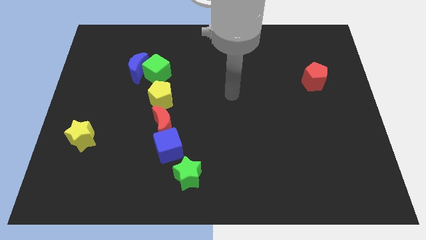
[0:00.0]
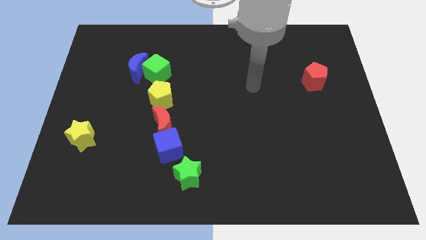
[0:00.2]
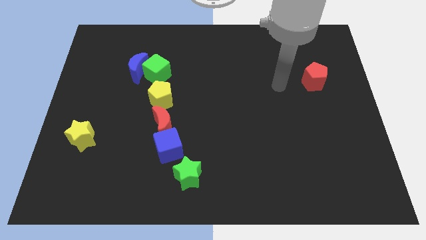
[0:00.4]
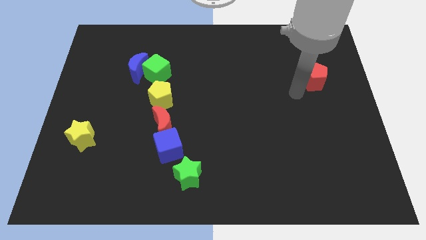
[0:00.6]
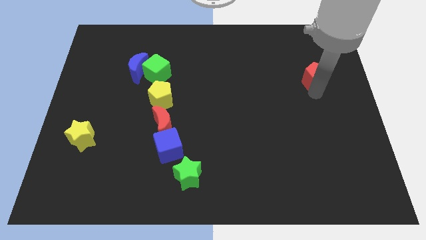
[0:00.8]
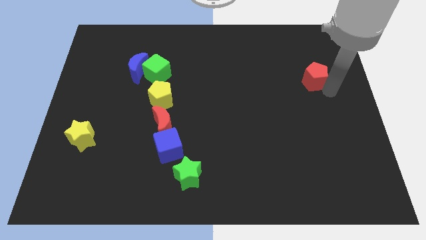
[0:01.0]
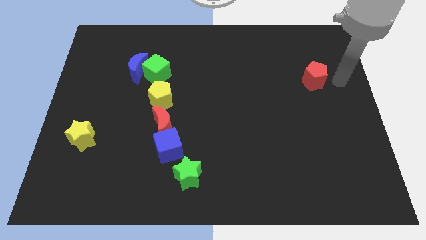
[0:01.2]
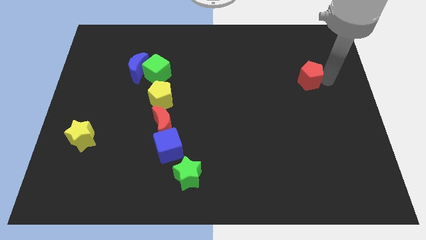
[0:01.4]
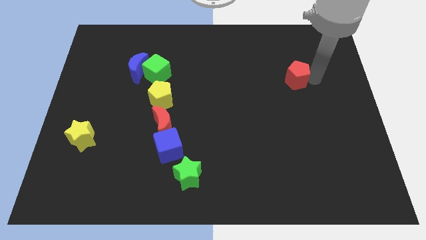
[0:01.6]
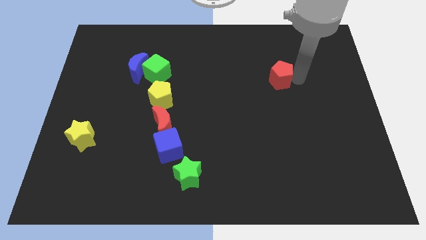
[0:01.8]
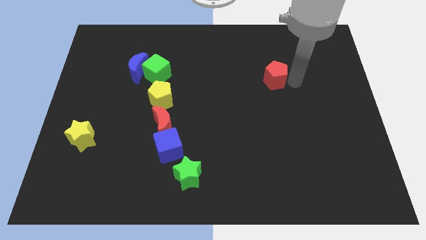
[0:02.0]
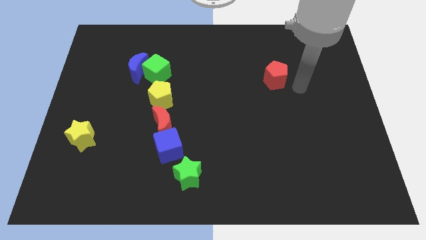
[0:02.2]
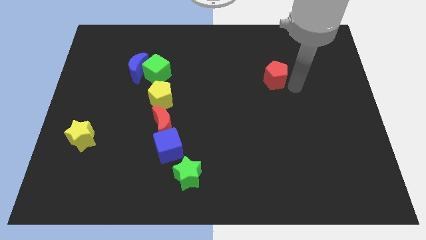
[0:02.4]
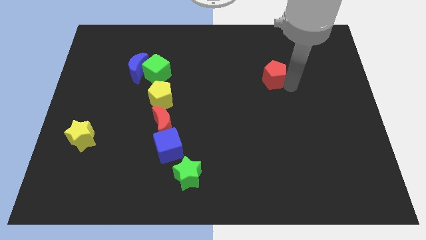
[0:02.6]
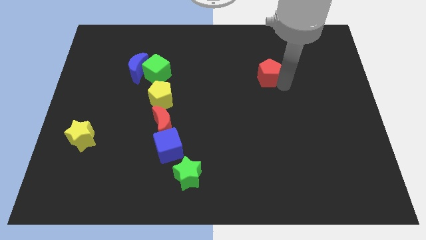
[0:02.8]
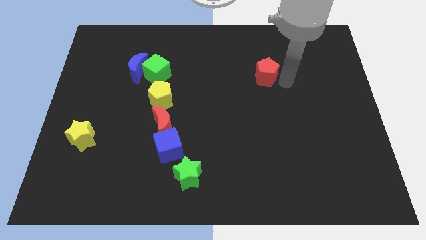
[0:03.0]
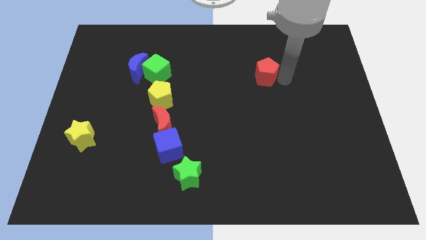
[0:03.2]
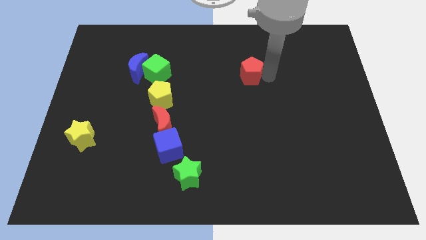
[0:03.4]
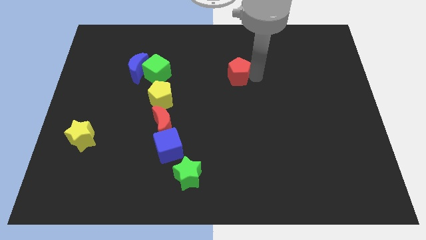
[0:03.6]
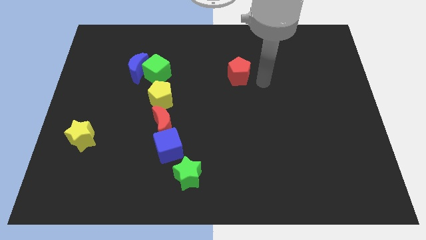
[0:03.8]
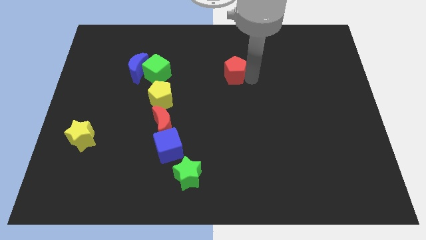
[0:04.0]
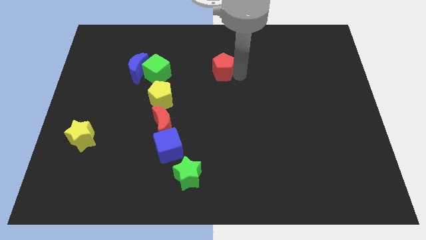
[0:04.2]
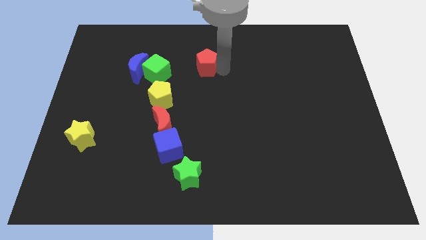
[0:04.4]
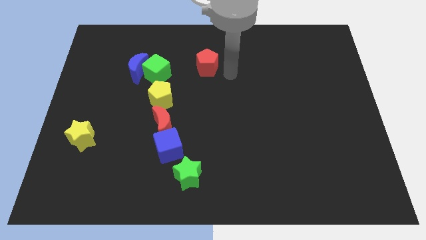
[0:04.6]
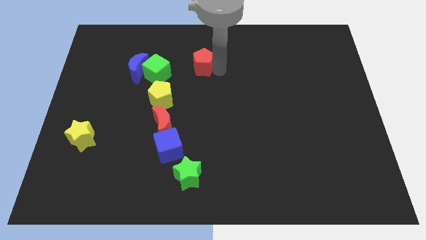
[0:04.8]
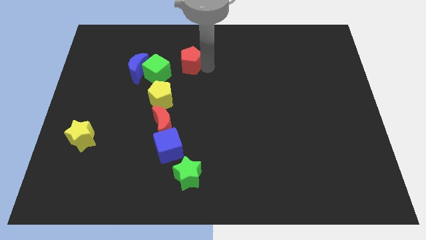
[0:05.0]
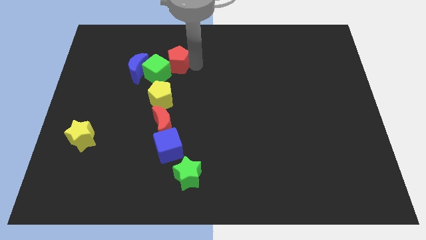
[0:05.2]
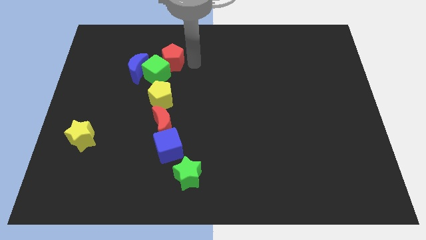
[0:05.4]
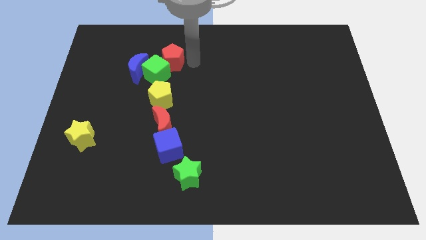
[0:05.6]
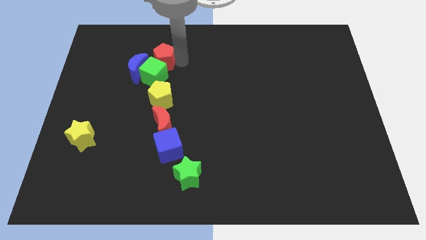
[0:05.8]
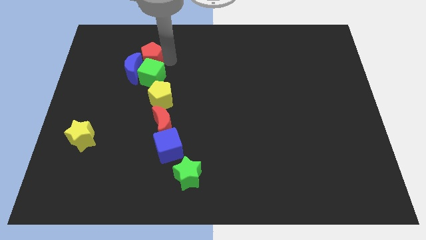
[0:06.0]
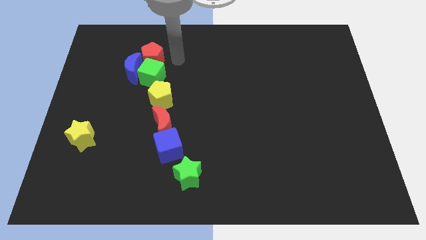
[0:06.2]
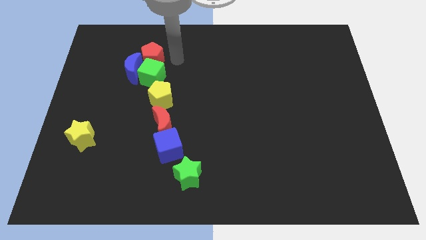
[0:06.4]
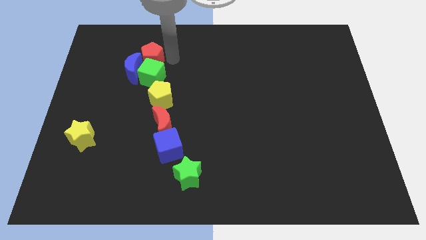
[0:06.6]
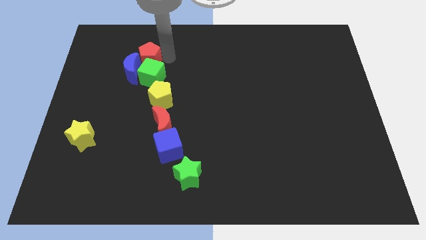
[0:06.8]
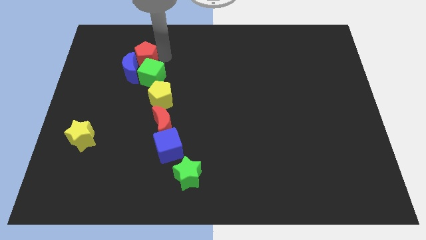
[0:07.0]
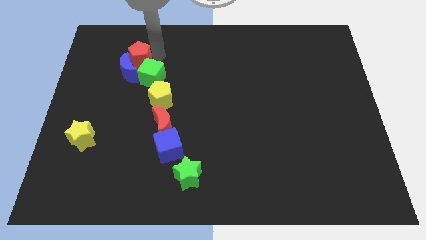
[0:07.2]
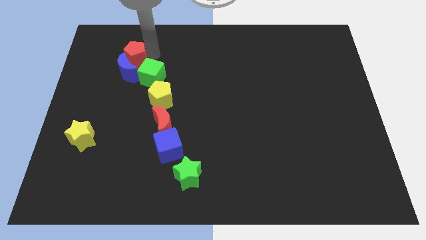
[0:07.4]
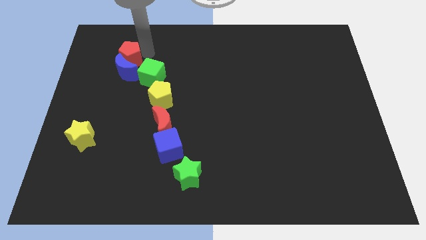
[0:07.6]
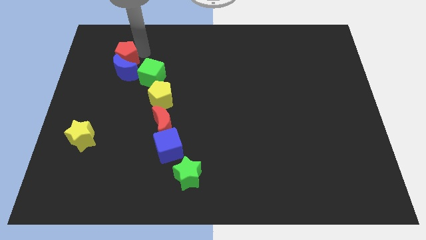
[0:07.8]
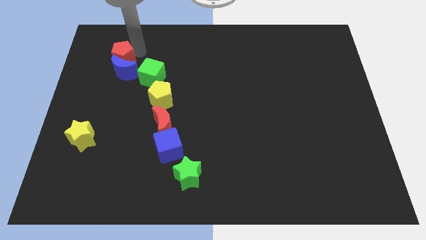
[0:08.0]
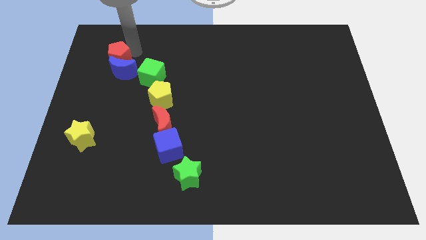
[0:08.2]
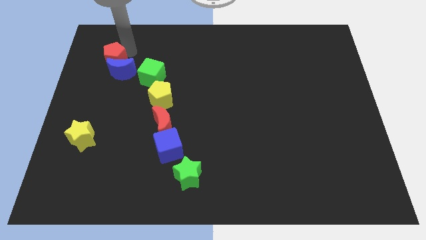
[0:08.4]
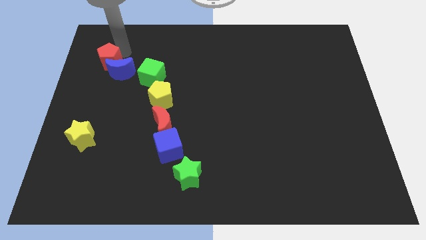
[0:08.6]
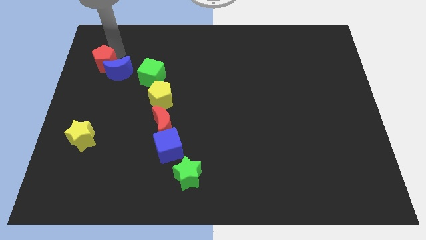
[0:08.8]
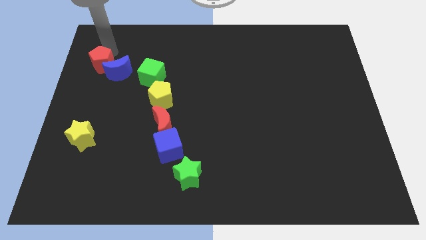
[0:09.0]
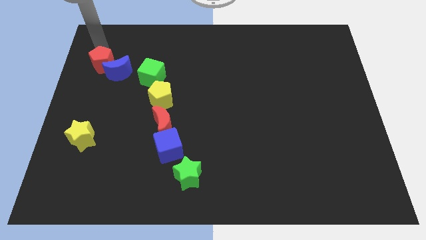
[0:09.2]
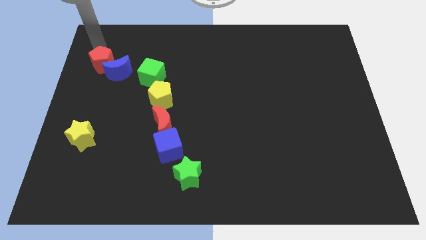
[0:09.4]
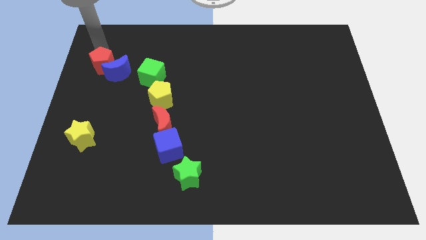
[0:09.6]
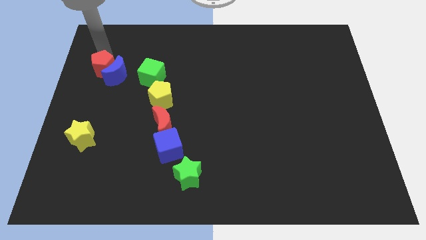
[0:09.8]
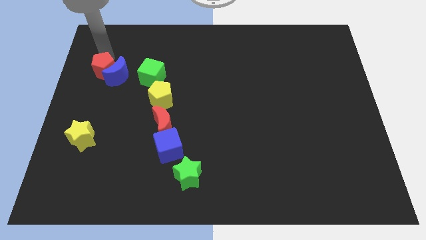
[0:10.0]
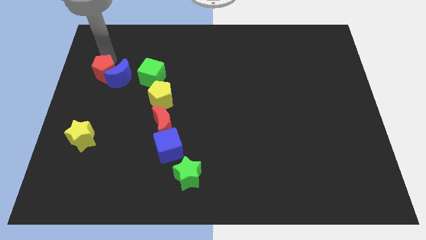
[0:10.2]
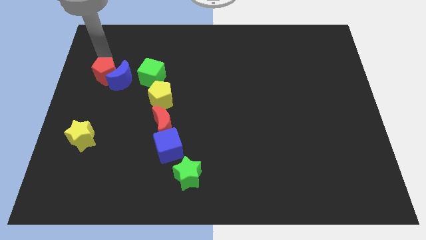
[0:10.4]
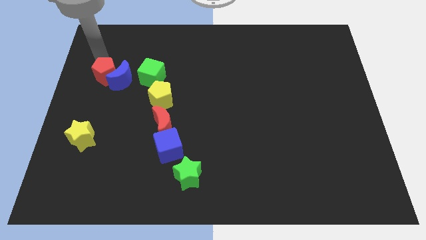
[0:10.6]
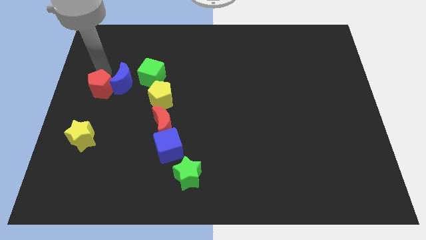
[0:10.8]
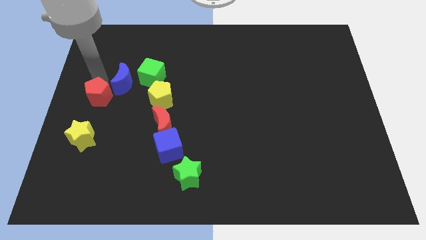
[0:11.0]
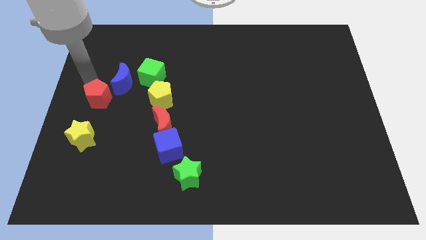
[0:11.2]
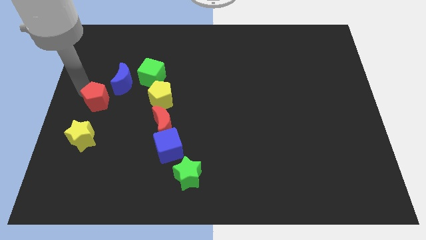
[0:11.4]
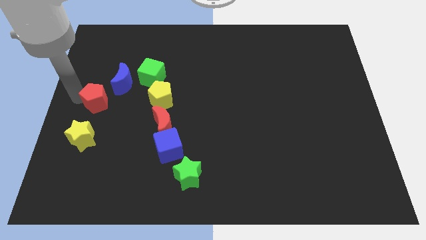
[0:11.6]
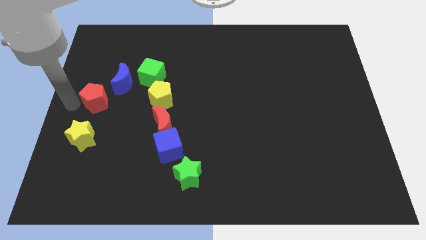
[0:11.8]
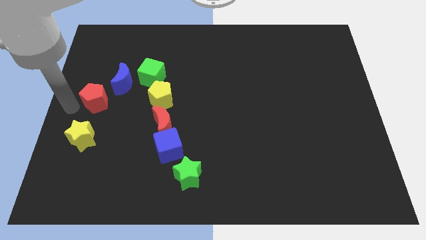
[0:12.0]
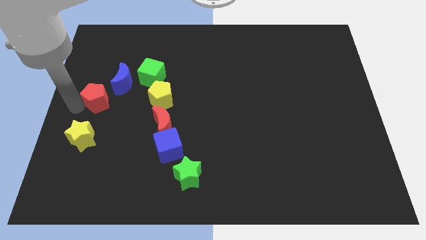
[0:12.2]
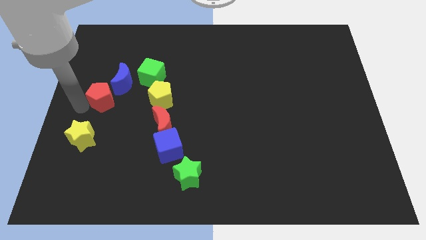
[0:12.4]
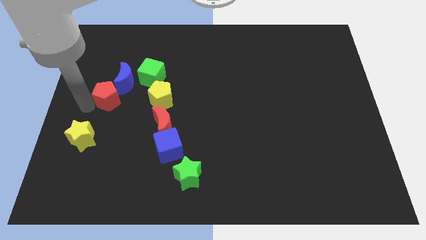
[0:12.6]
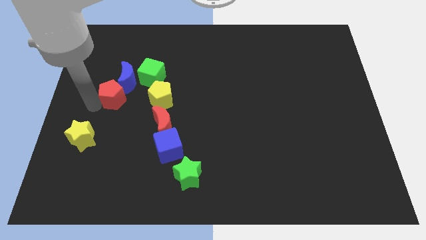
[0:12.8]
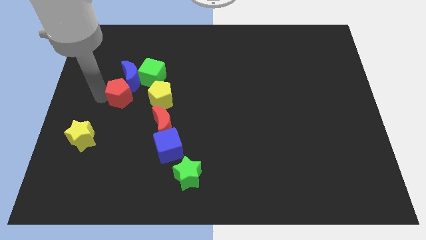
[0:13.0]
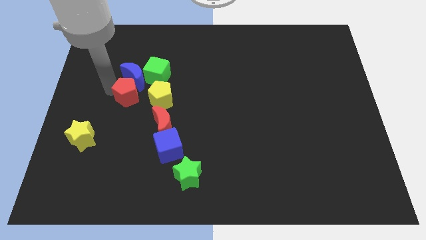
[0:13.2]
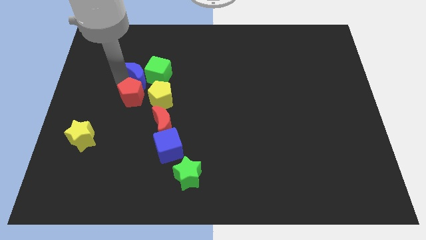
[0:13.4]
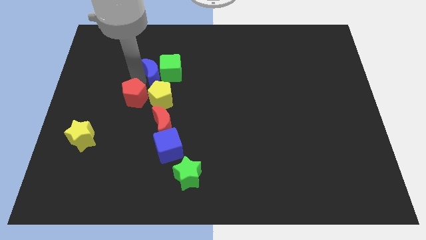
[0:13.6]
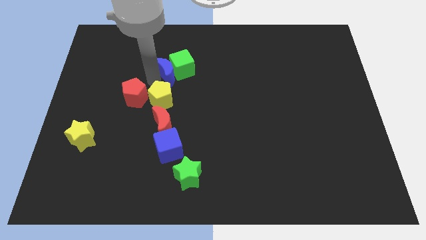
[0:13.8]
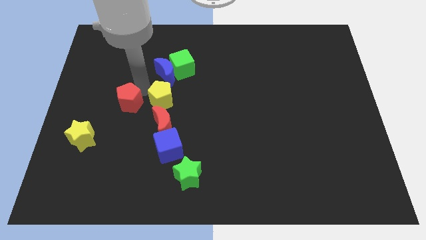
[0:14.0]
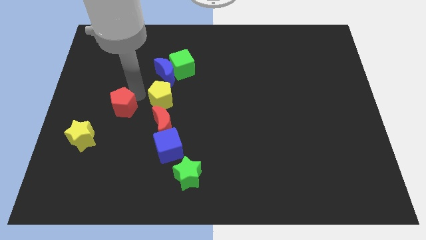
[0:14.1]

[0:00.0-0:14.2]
put the red pentagon diagonally up and to the right of the yellow star
